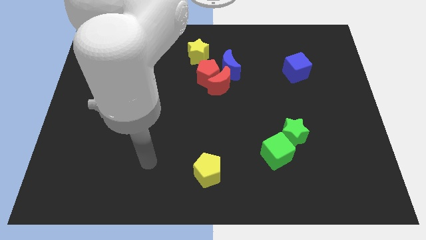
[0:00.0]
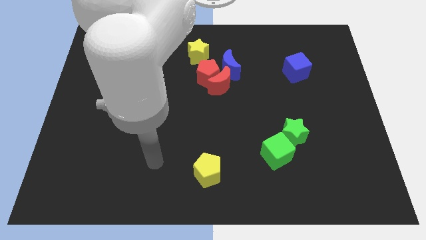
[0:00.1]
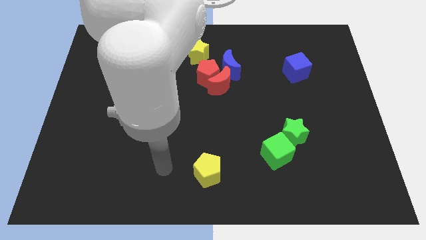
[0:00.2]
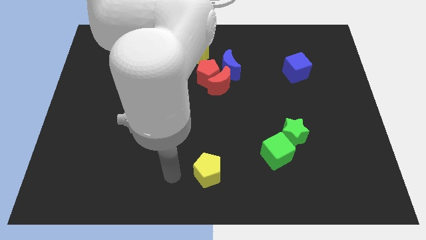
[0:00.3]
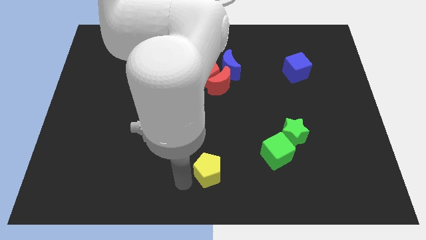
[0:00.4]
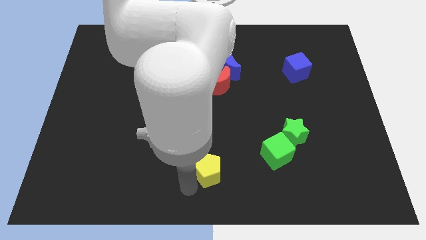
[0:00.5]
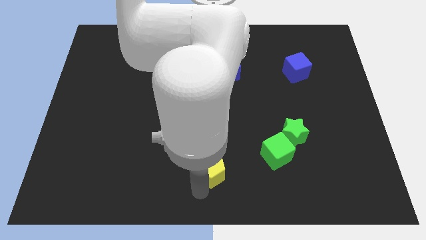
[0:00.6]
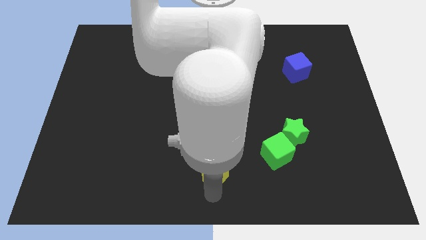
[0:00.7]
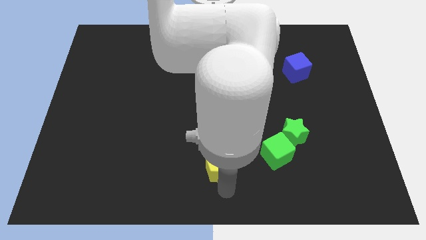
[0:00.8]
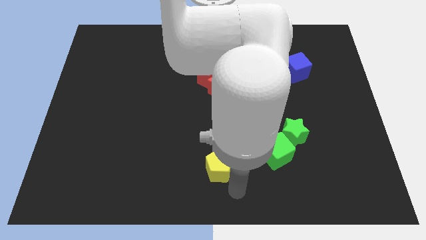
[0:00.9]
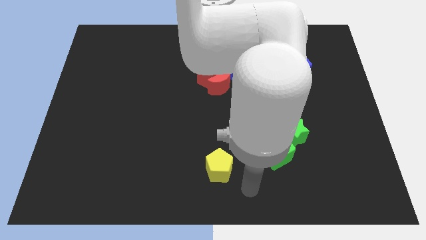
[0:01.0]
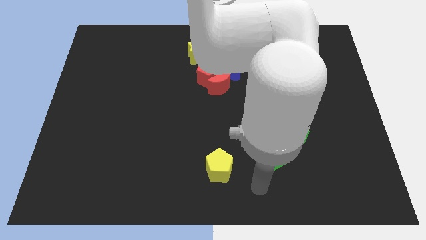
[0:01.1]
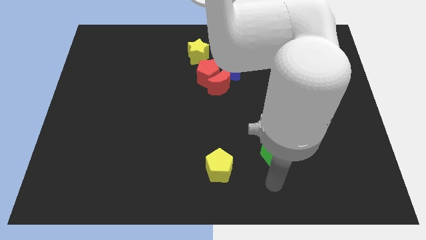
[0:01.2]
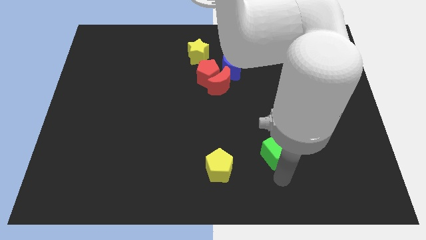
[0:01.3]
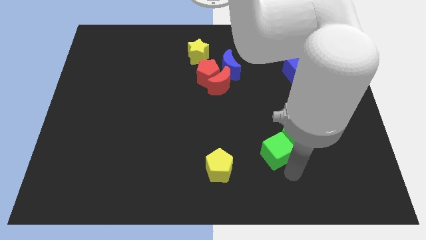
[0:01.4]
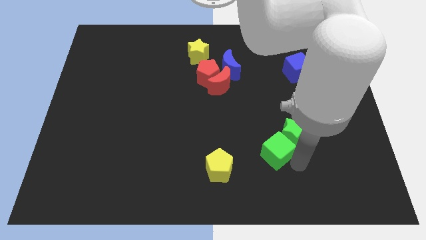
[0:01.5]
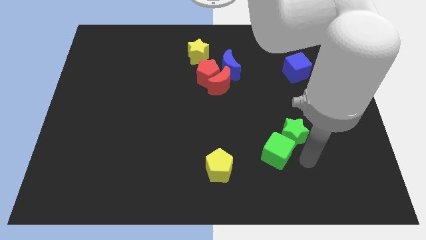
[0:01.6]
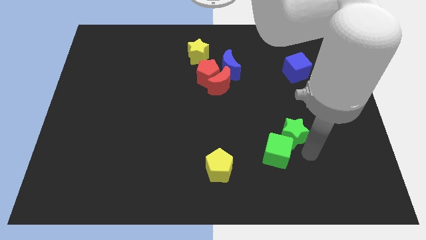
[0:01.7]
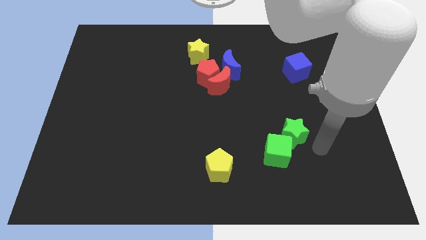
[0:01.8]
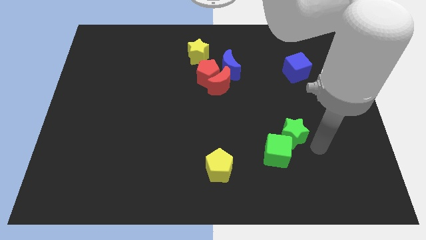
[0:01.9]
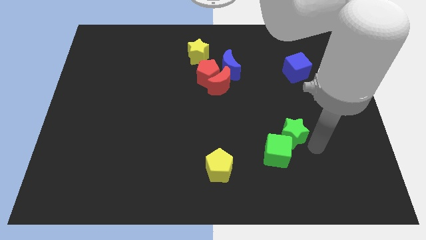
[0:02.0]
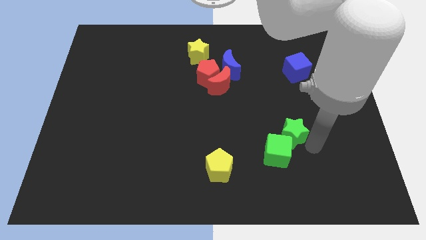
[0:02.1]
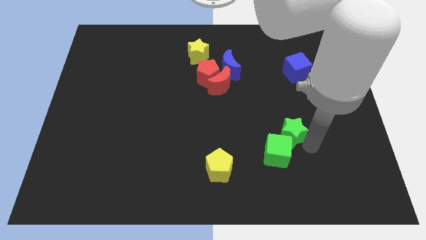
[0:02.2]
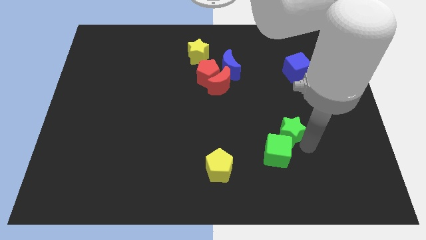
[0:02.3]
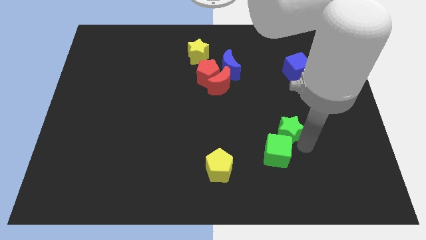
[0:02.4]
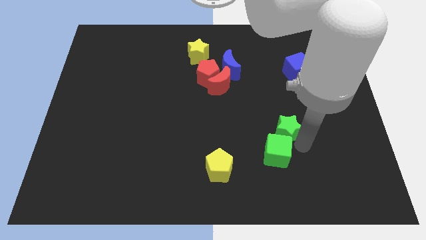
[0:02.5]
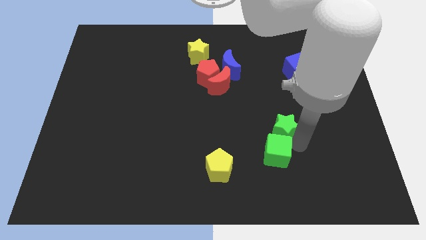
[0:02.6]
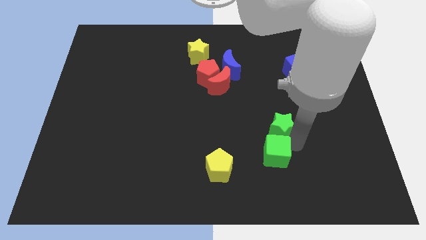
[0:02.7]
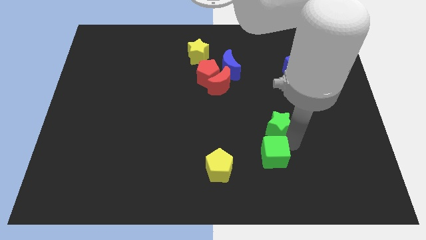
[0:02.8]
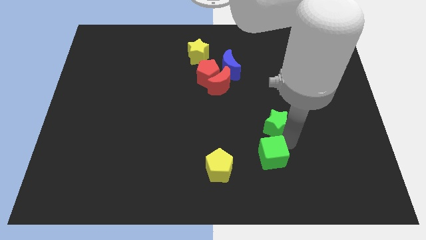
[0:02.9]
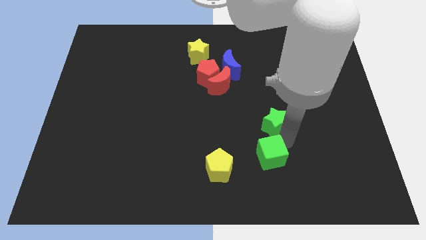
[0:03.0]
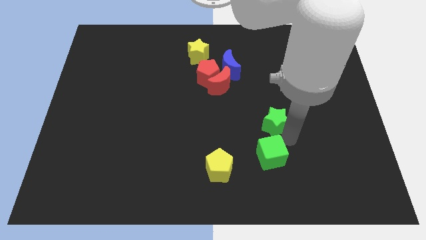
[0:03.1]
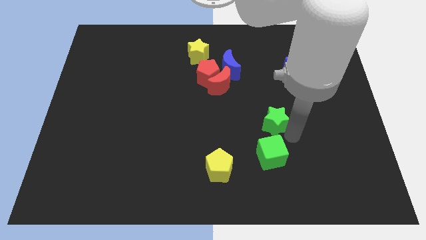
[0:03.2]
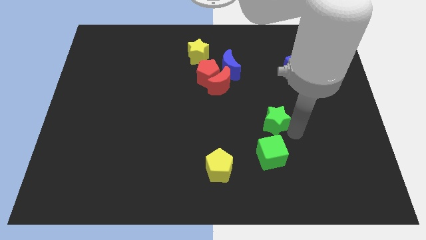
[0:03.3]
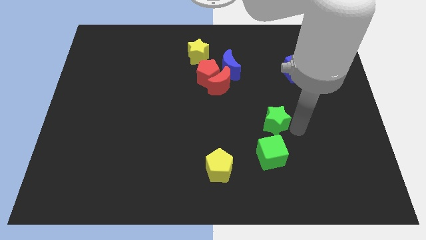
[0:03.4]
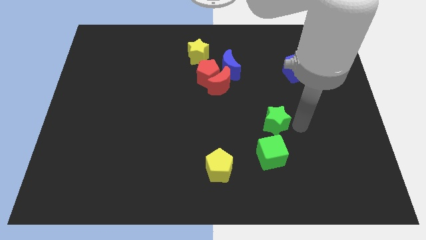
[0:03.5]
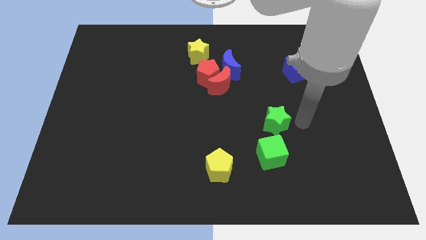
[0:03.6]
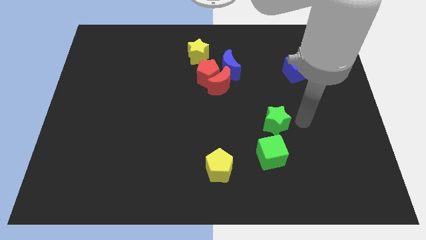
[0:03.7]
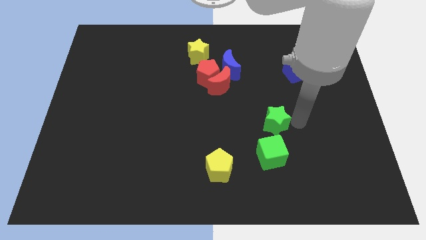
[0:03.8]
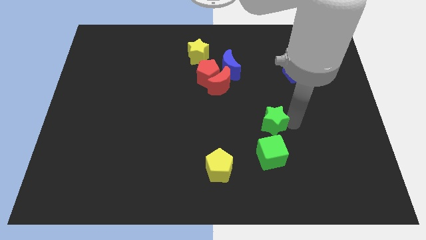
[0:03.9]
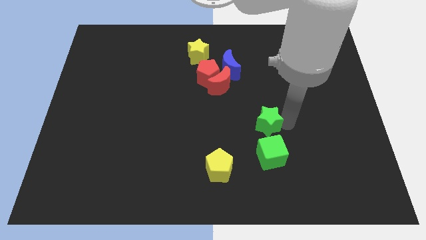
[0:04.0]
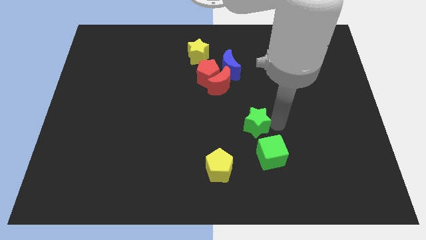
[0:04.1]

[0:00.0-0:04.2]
push the green star left somewhat

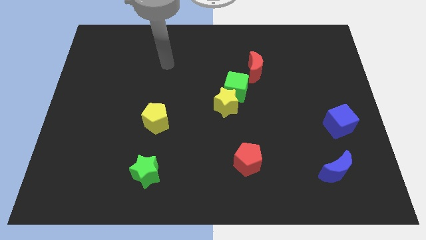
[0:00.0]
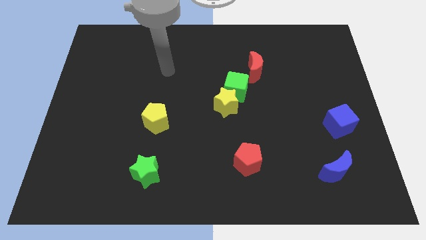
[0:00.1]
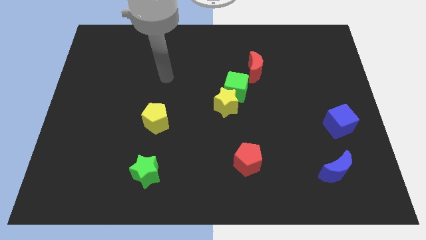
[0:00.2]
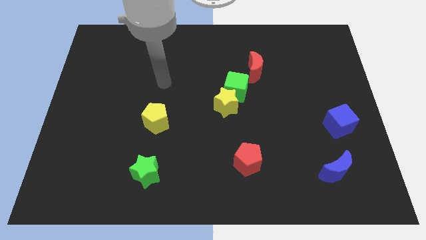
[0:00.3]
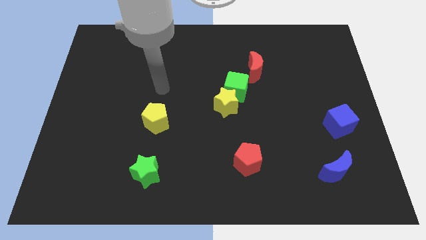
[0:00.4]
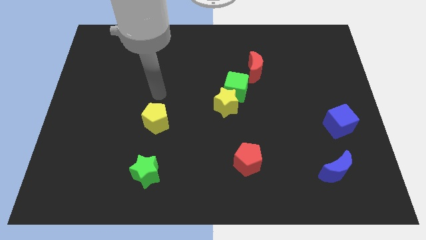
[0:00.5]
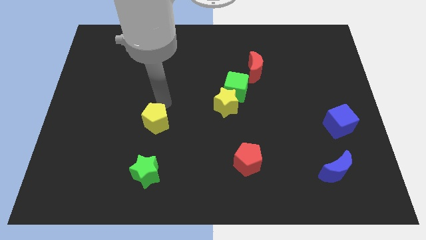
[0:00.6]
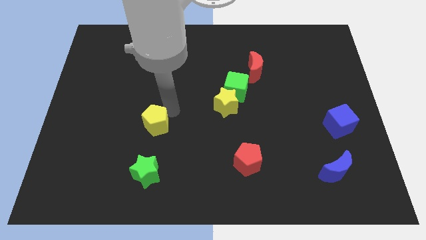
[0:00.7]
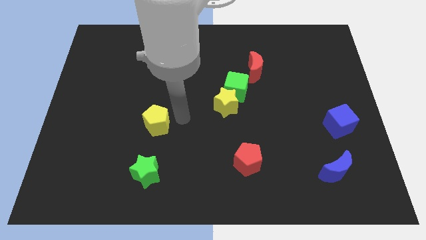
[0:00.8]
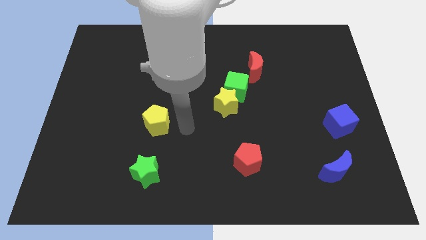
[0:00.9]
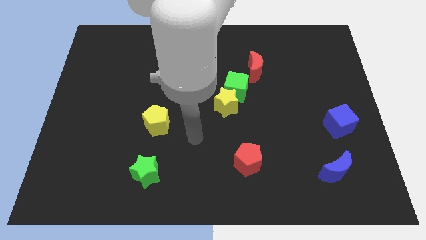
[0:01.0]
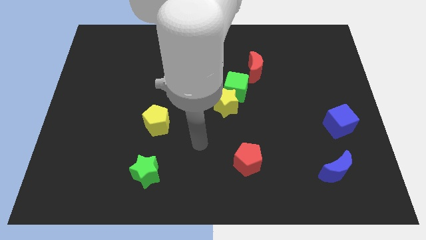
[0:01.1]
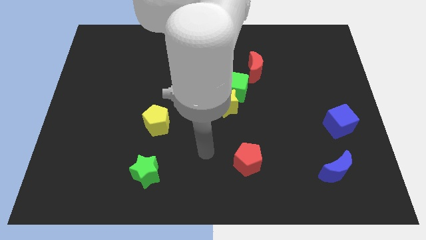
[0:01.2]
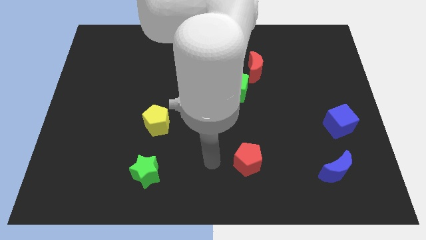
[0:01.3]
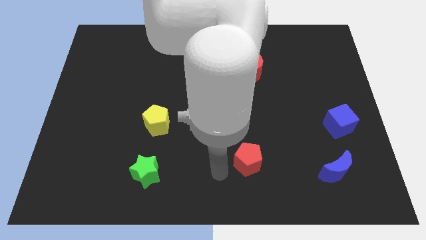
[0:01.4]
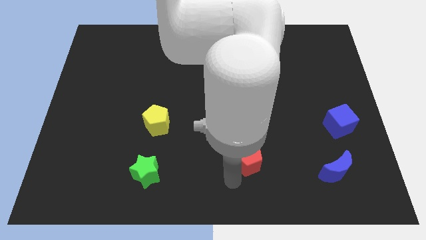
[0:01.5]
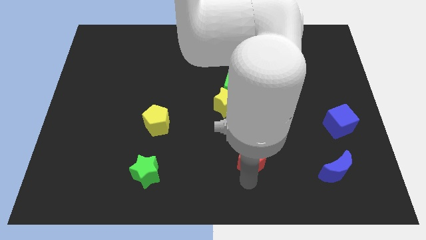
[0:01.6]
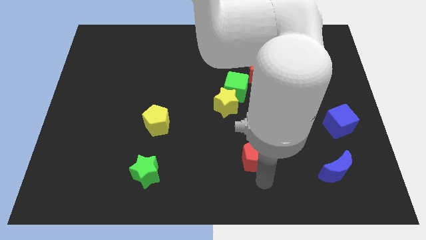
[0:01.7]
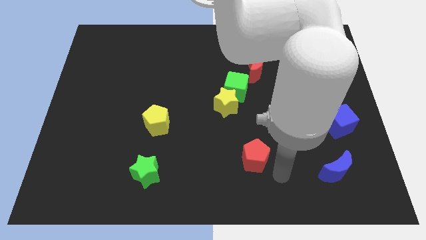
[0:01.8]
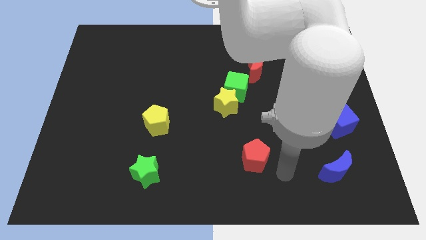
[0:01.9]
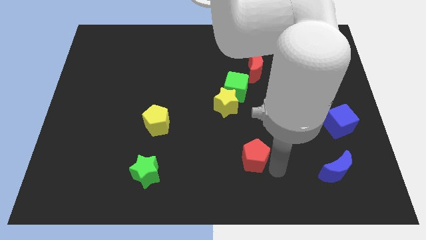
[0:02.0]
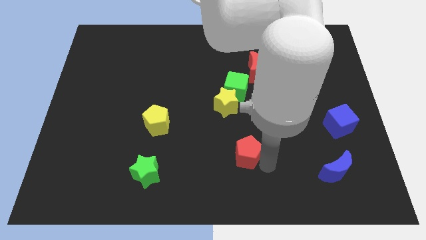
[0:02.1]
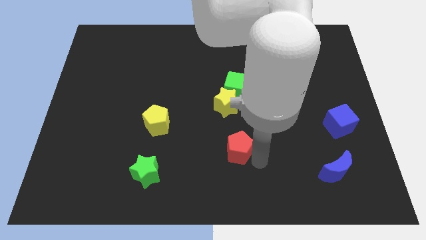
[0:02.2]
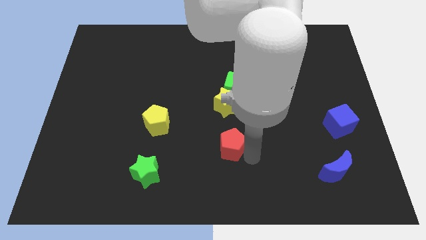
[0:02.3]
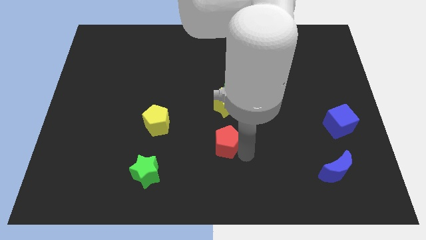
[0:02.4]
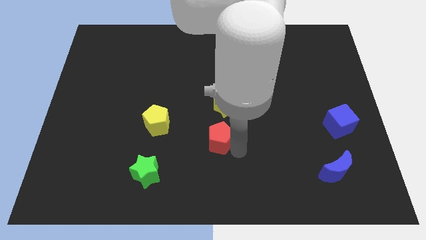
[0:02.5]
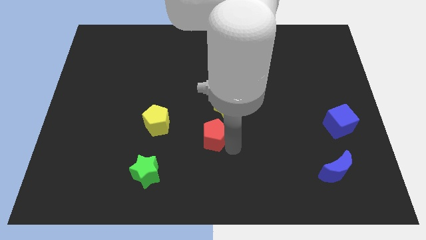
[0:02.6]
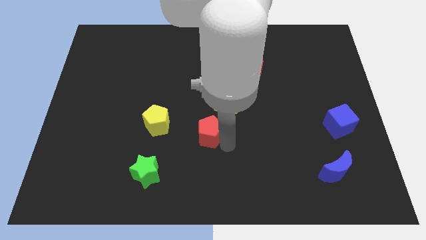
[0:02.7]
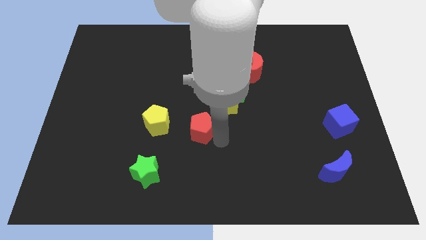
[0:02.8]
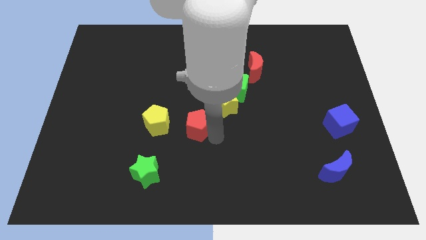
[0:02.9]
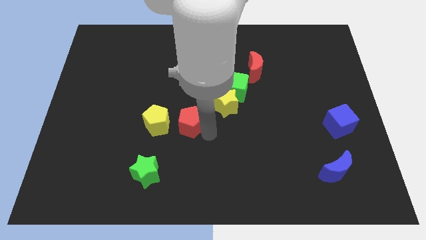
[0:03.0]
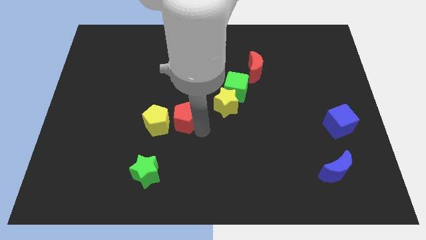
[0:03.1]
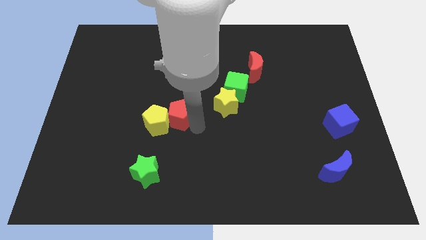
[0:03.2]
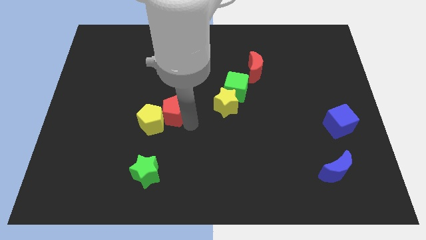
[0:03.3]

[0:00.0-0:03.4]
move the red pentagon upwards and to the left

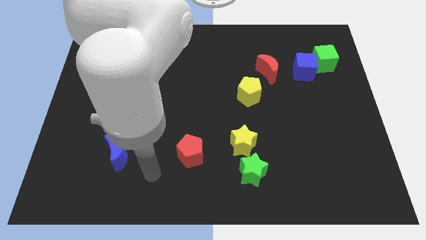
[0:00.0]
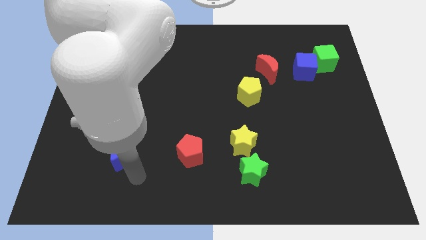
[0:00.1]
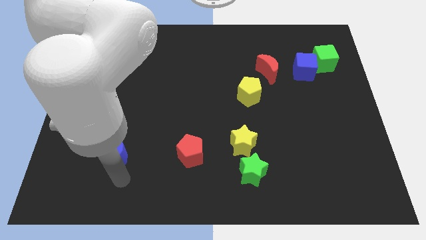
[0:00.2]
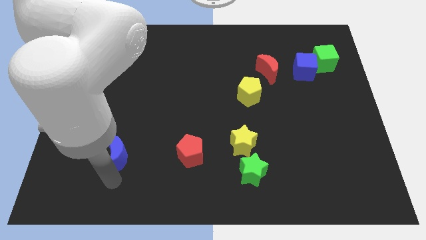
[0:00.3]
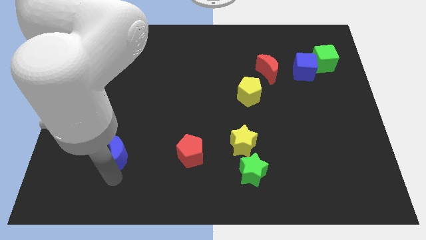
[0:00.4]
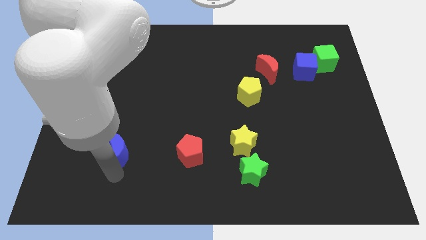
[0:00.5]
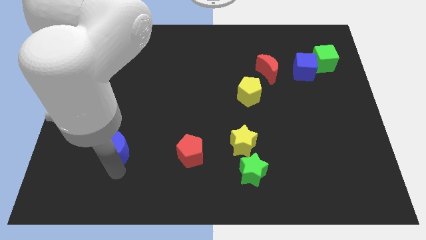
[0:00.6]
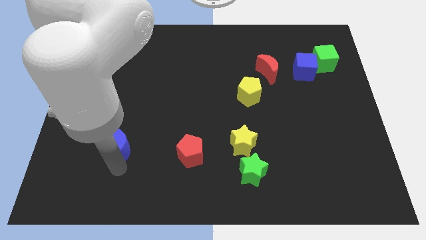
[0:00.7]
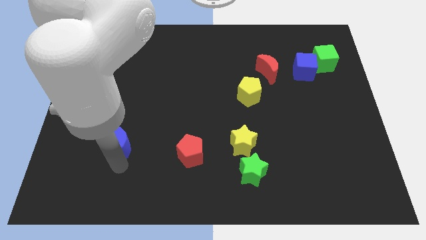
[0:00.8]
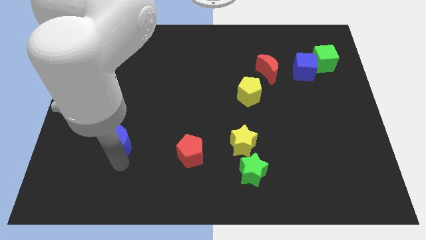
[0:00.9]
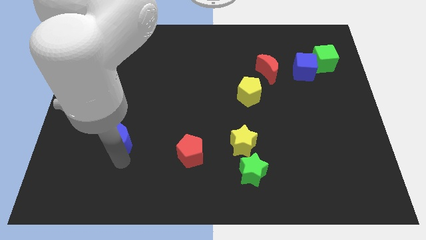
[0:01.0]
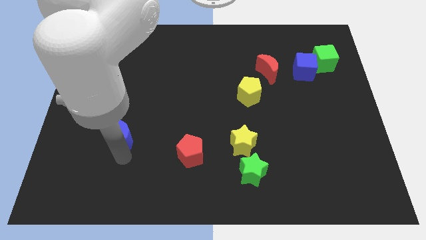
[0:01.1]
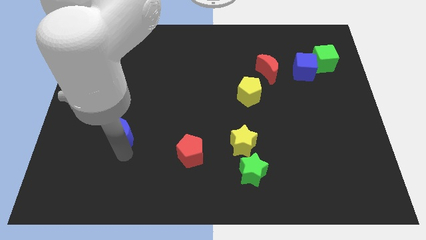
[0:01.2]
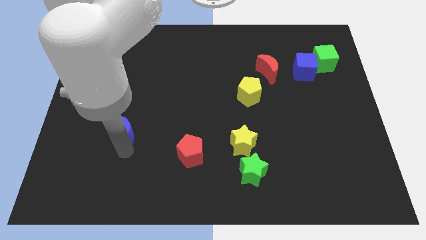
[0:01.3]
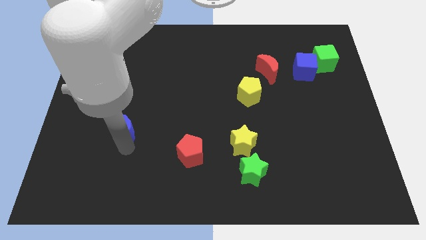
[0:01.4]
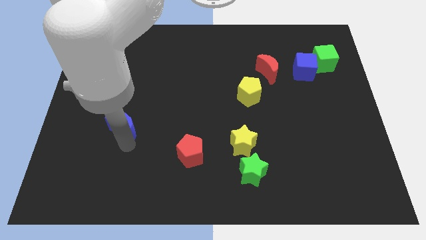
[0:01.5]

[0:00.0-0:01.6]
slightly move the blue moon up
